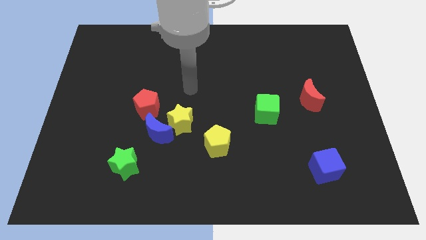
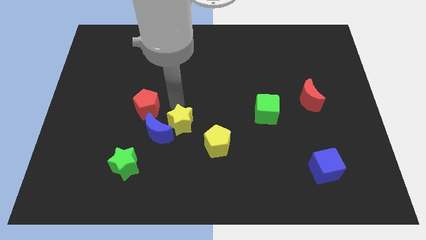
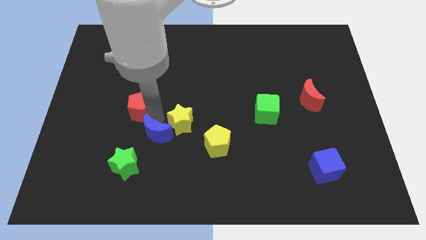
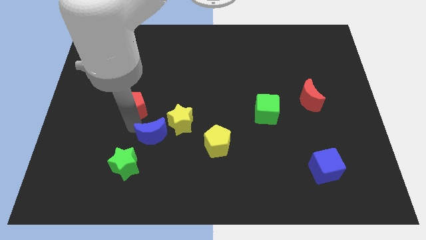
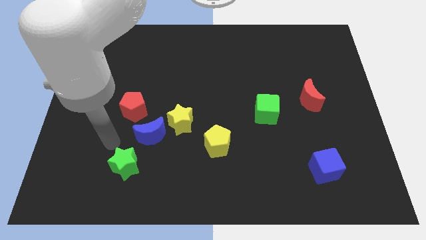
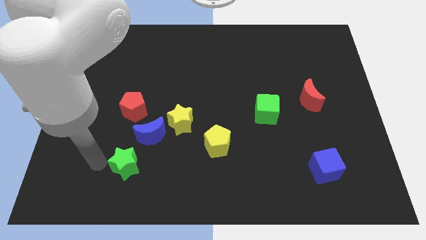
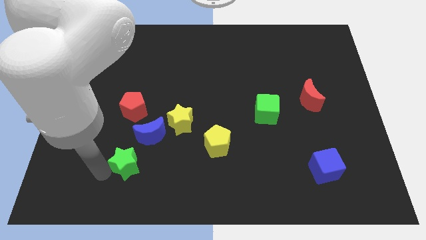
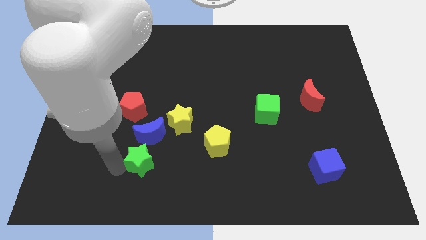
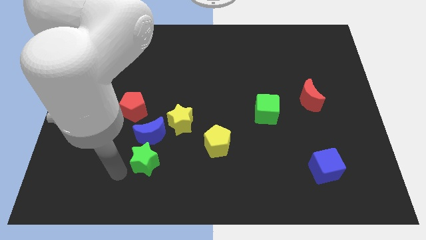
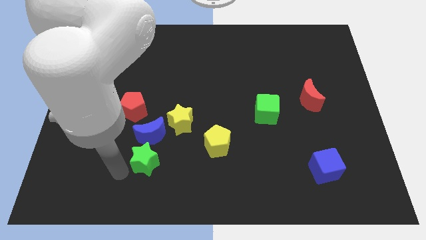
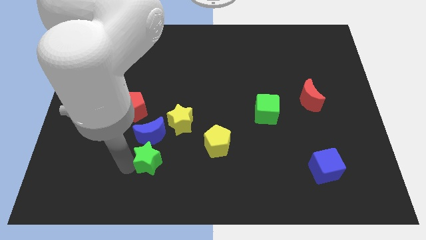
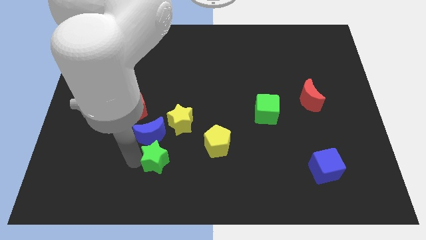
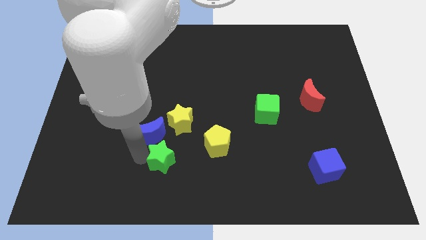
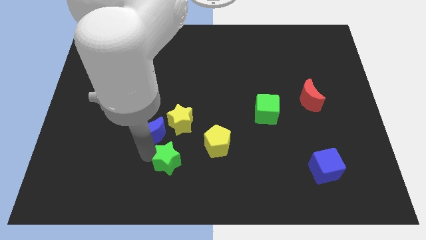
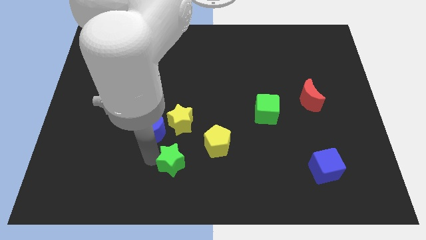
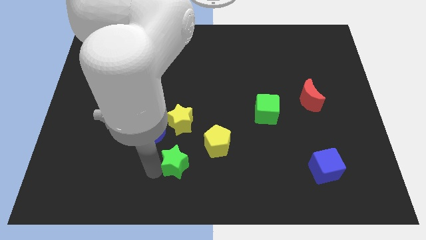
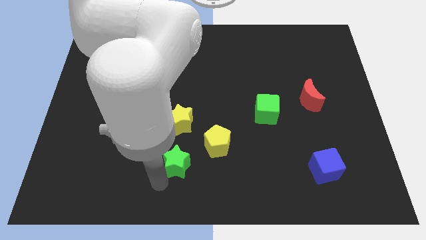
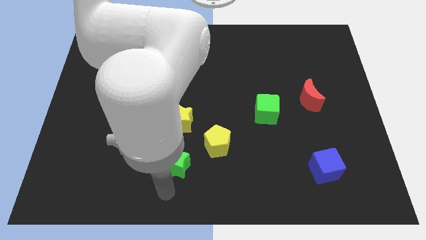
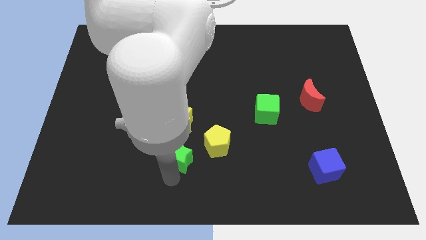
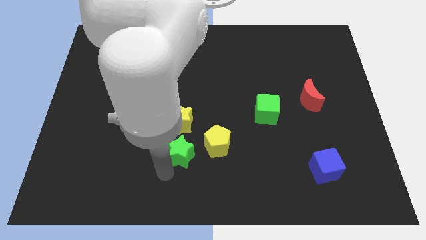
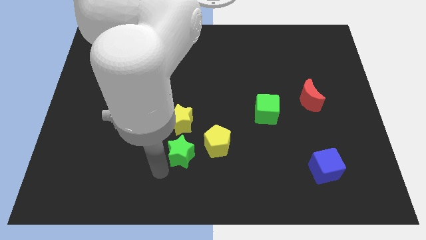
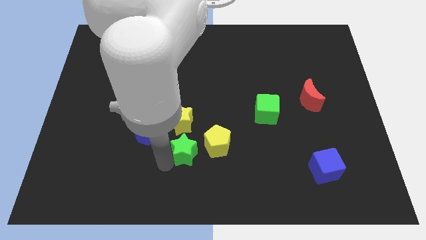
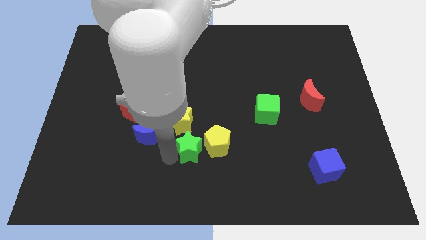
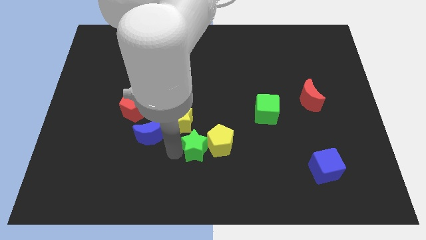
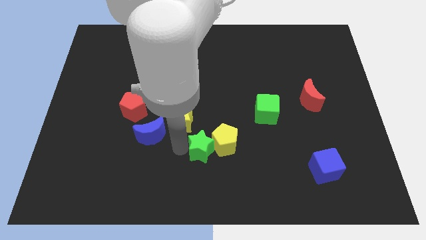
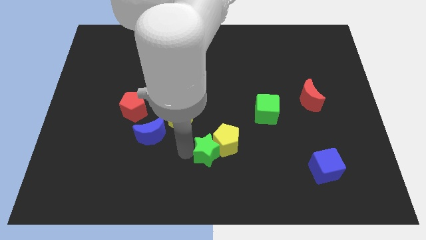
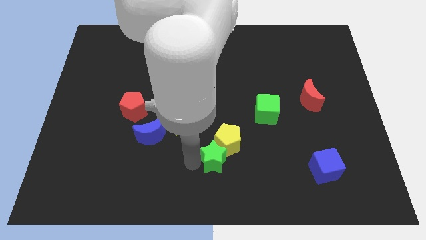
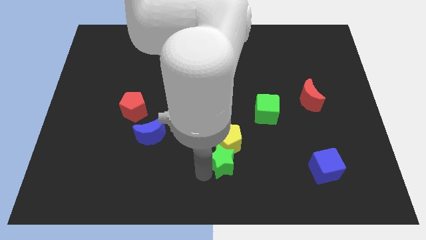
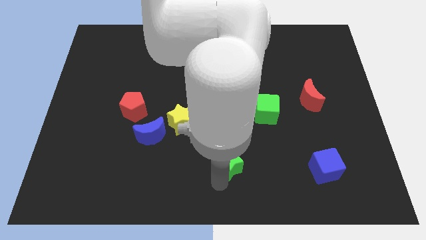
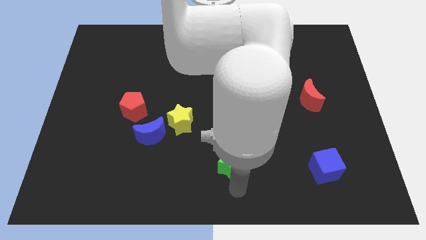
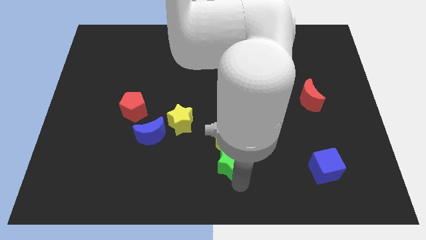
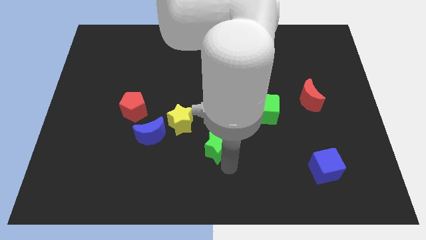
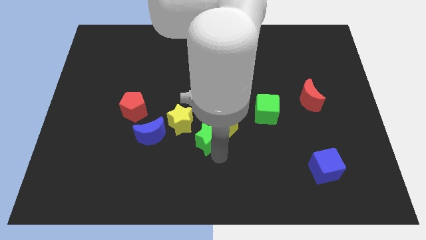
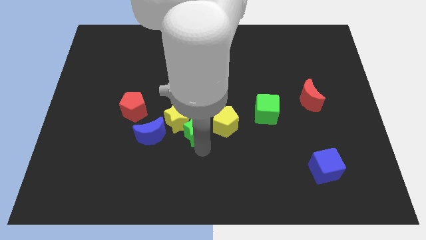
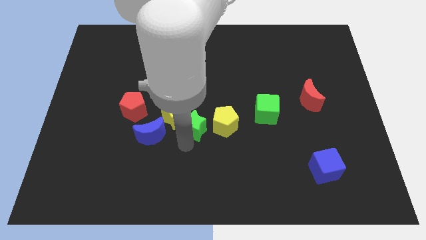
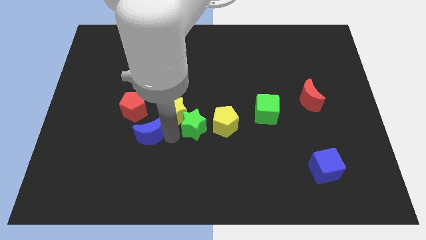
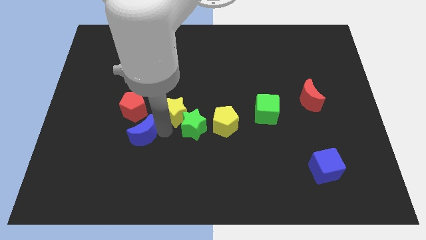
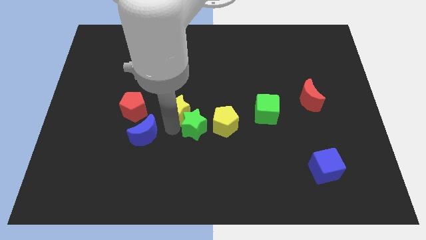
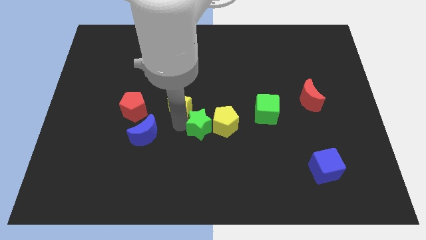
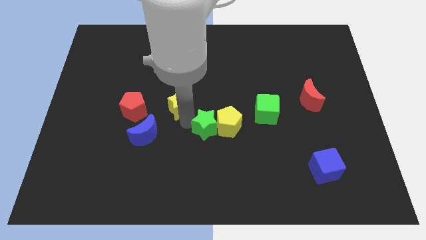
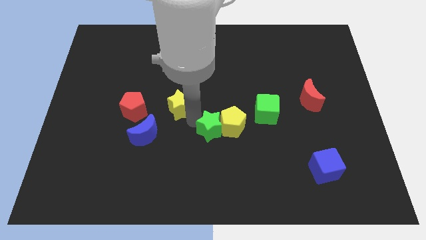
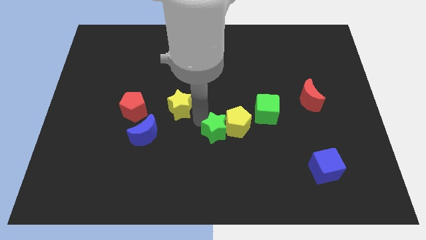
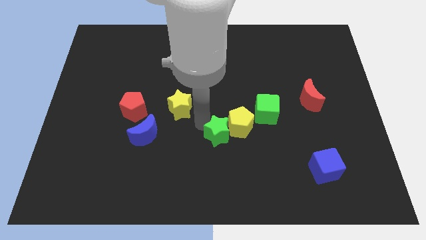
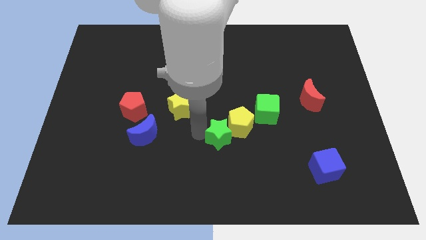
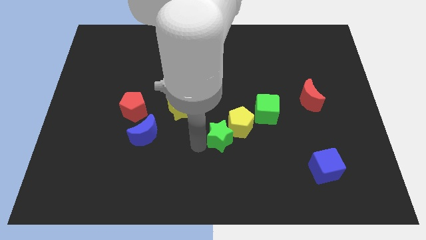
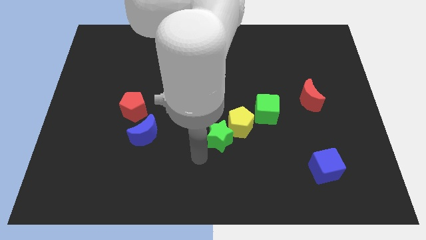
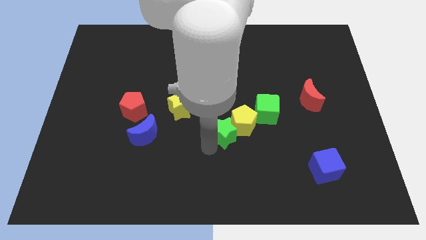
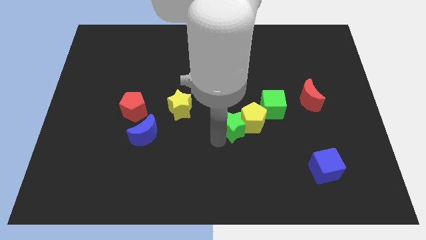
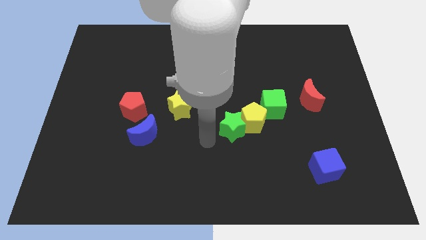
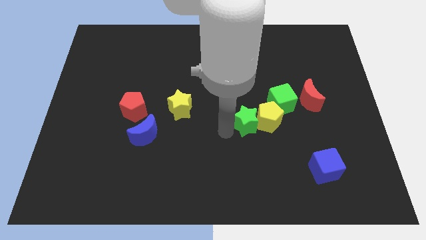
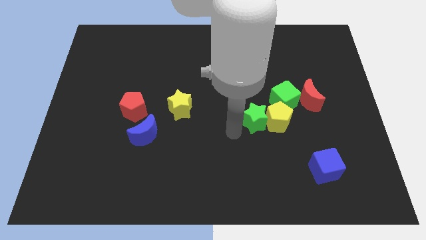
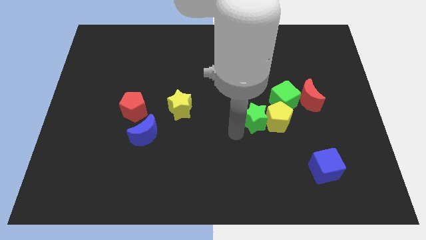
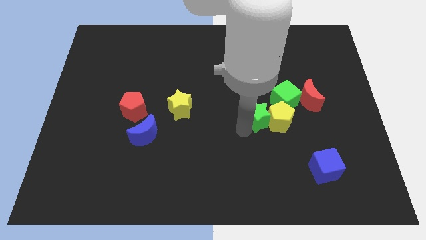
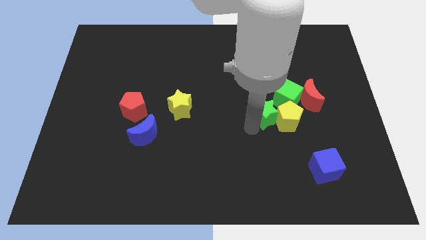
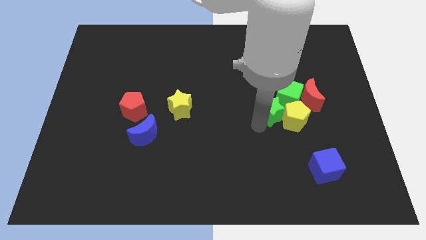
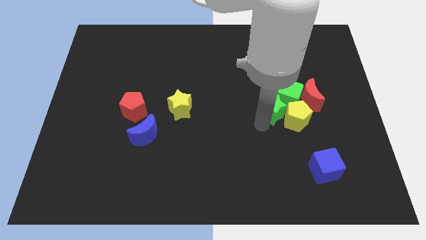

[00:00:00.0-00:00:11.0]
slide the green star towards the green cube

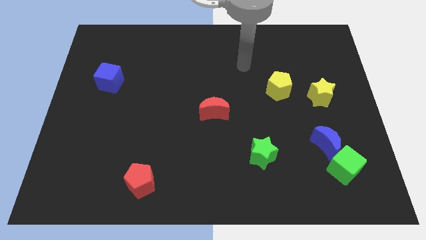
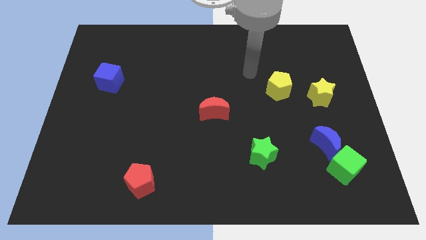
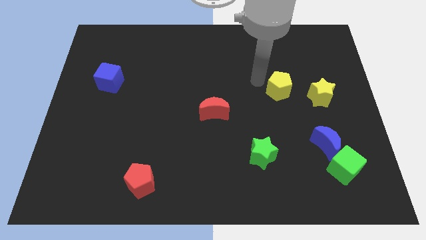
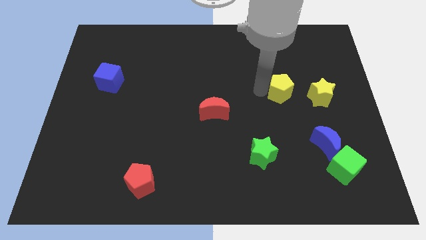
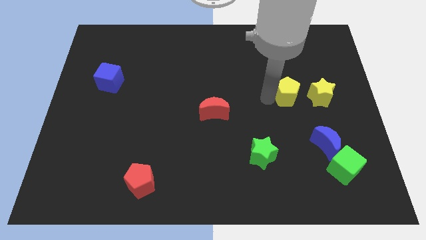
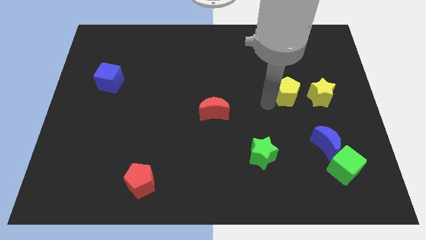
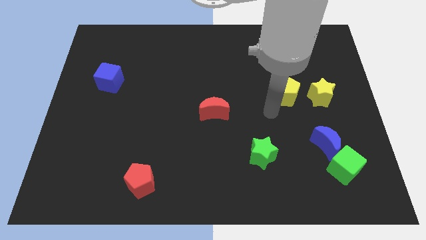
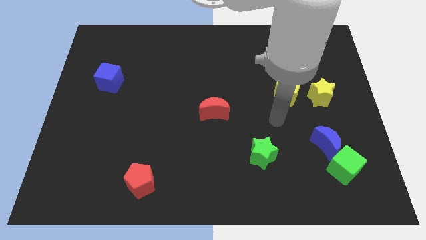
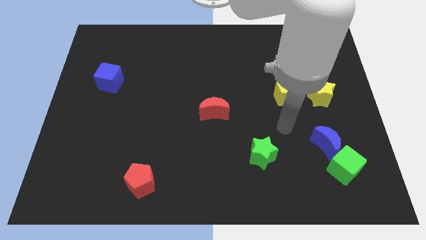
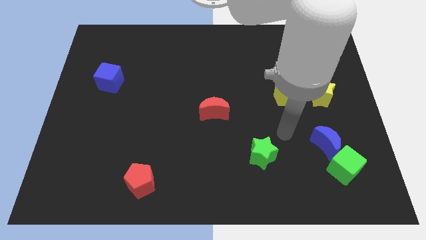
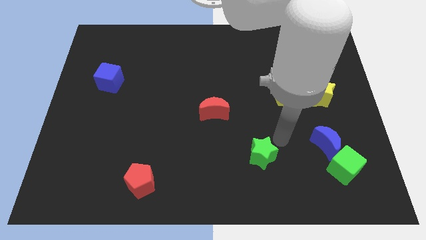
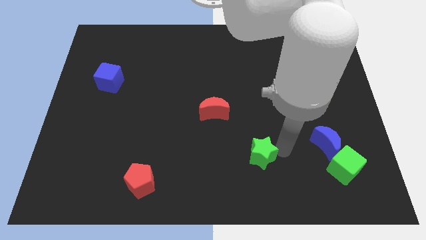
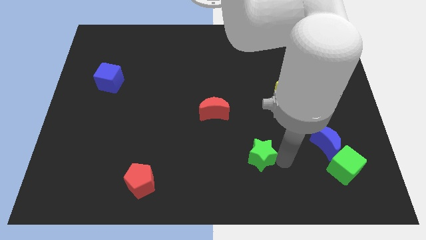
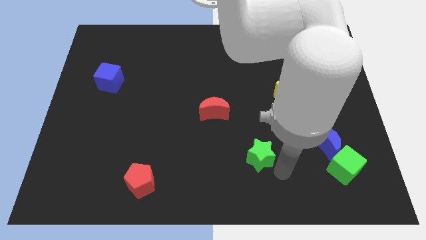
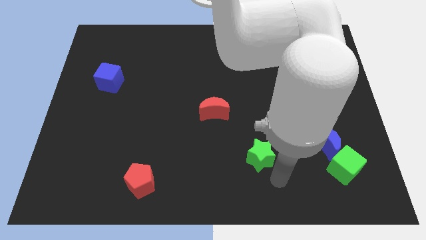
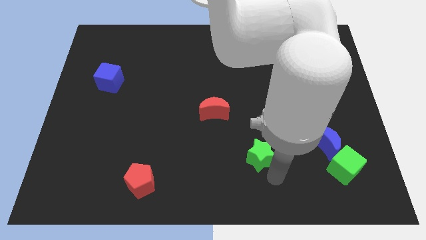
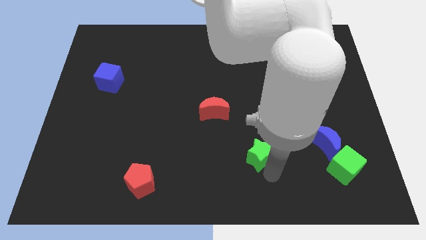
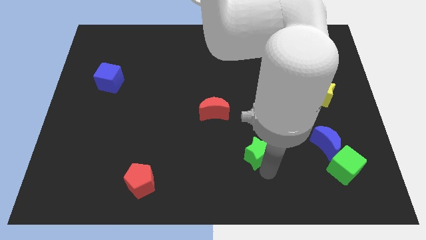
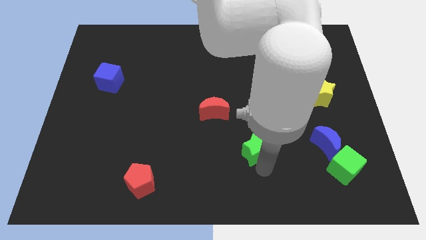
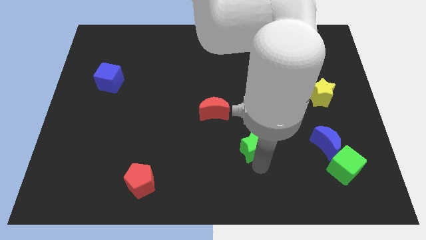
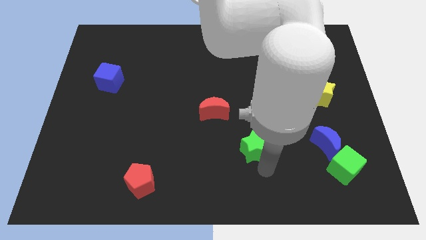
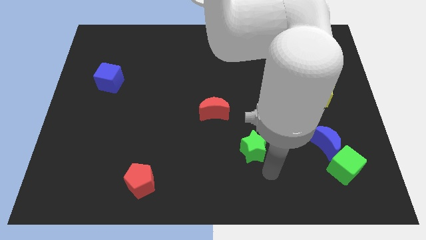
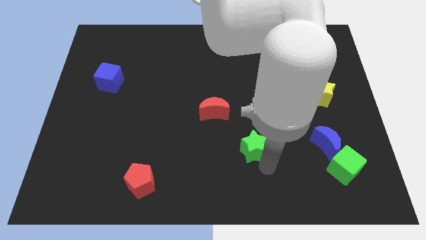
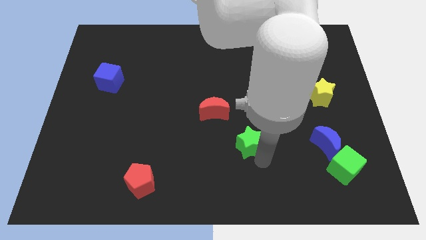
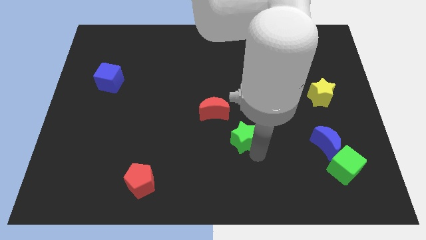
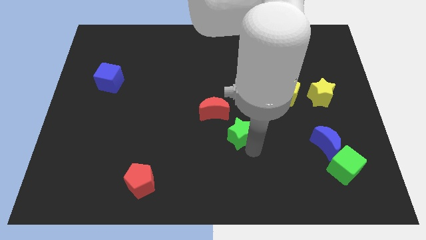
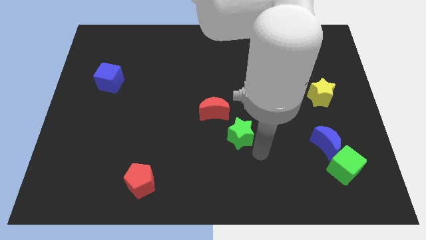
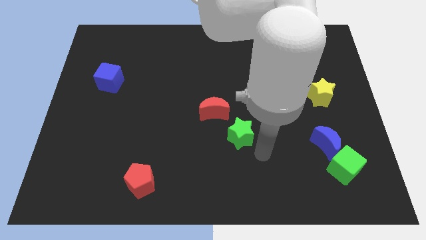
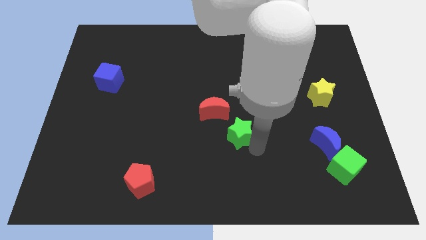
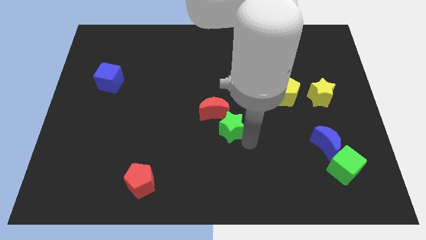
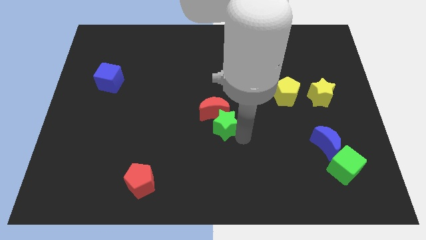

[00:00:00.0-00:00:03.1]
put the green star towards the red moon
